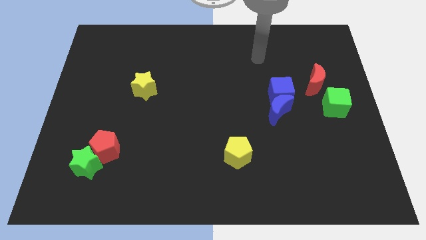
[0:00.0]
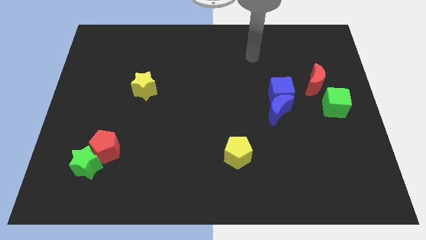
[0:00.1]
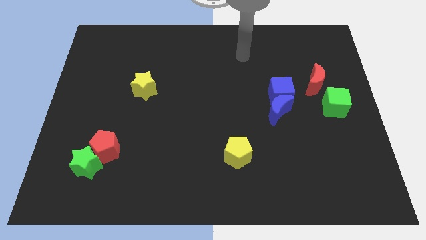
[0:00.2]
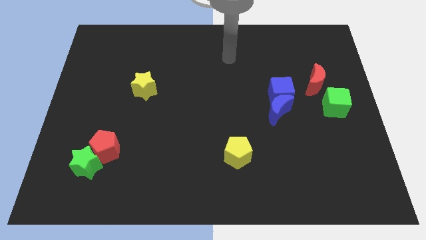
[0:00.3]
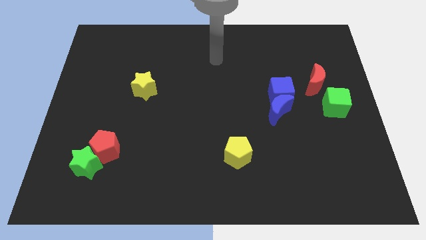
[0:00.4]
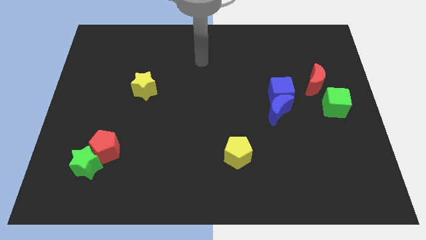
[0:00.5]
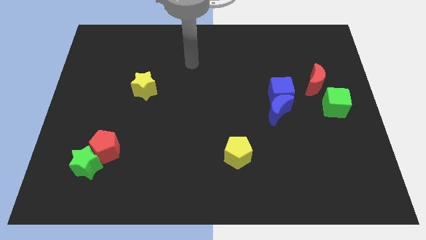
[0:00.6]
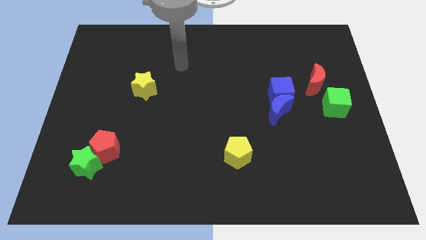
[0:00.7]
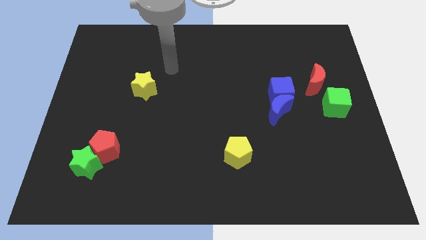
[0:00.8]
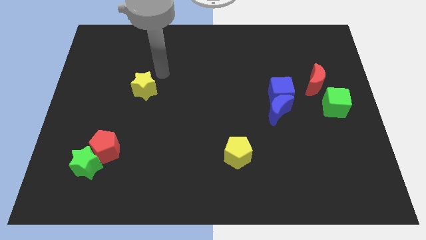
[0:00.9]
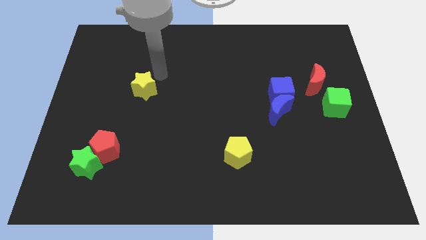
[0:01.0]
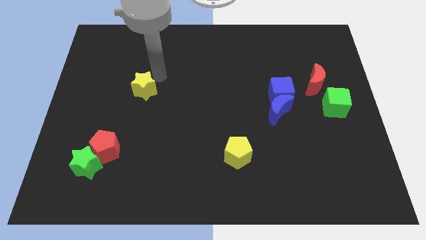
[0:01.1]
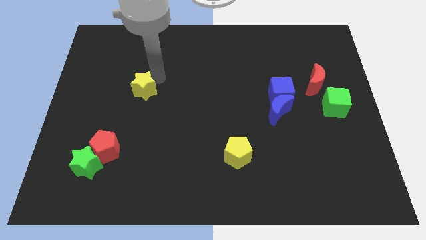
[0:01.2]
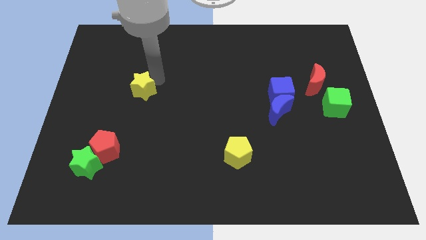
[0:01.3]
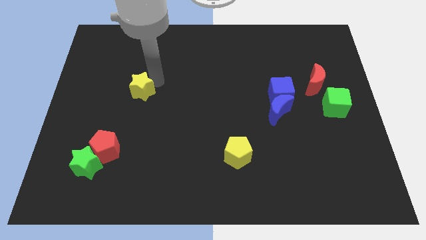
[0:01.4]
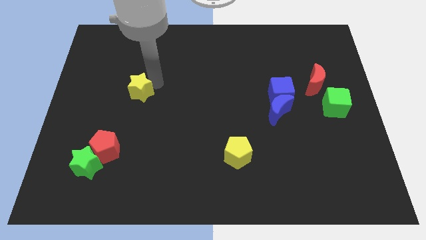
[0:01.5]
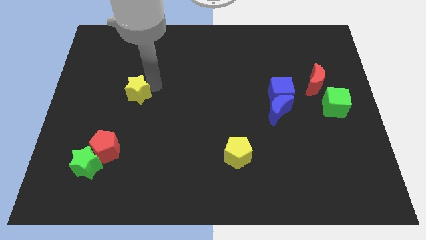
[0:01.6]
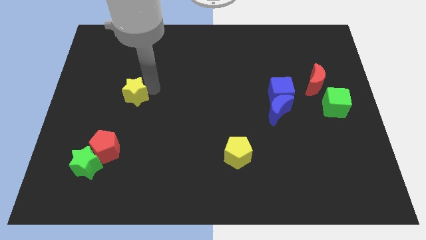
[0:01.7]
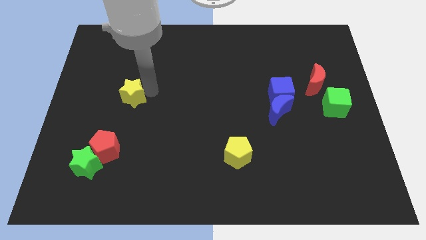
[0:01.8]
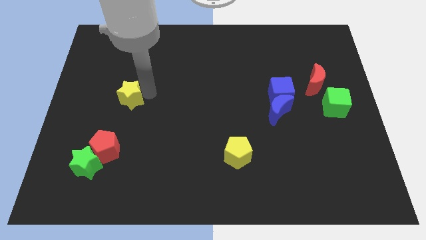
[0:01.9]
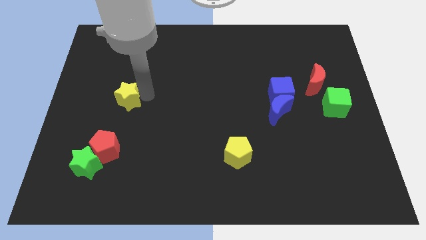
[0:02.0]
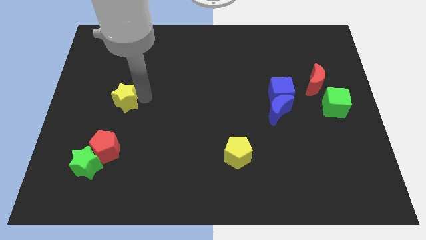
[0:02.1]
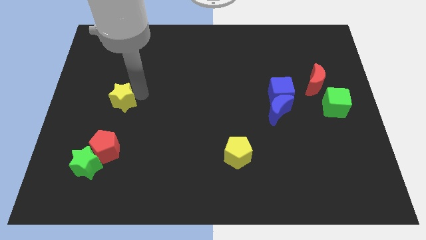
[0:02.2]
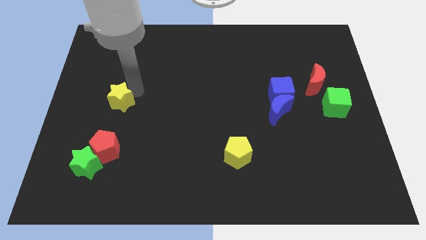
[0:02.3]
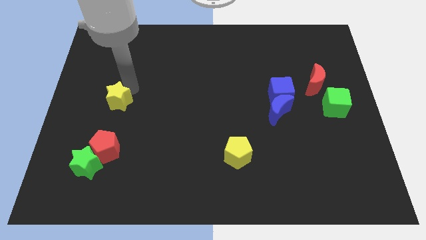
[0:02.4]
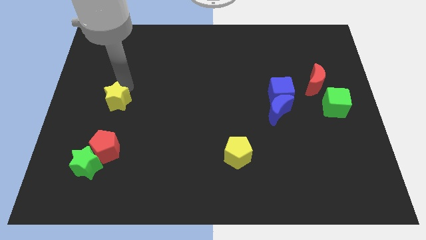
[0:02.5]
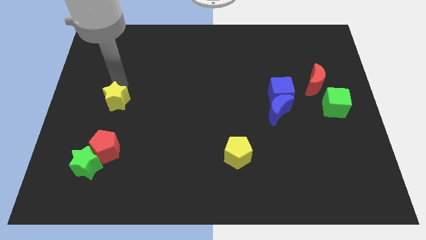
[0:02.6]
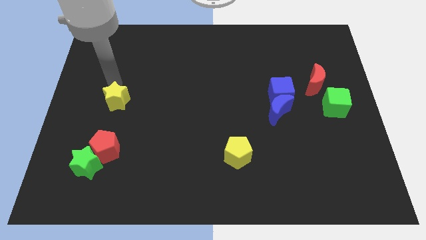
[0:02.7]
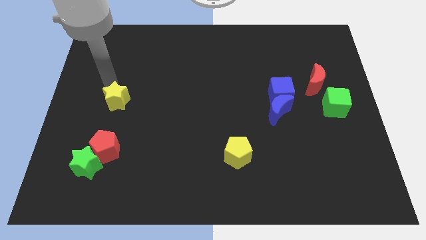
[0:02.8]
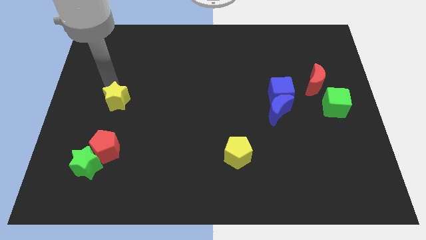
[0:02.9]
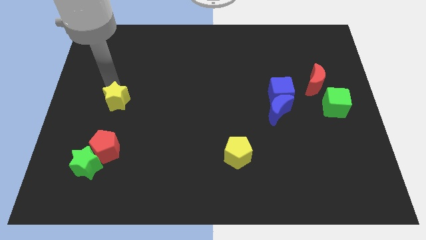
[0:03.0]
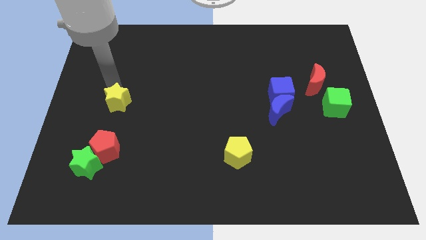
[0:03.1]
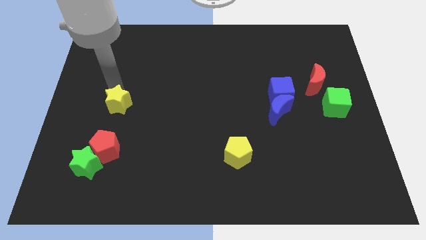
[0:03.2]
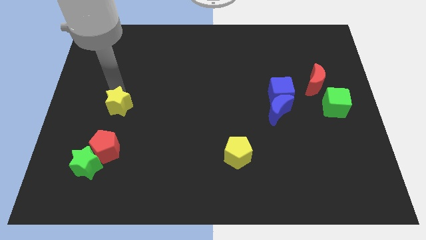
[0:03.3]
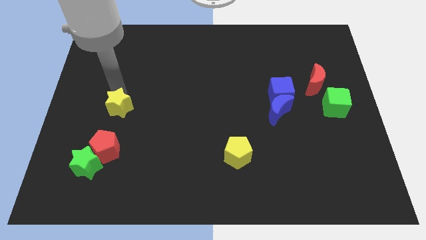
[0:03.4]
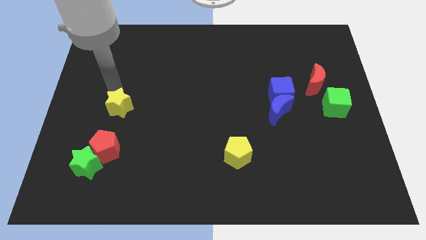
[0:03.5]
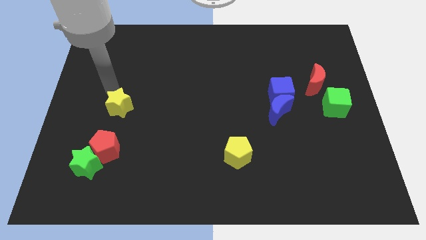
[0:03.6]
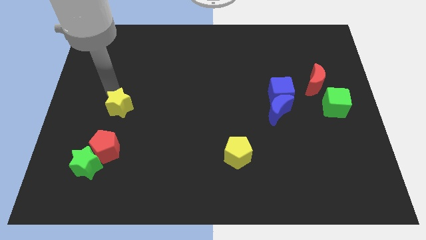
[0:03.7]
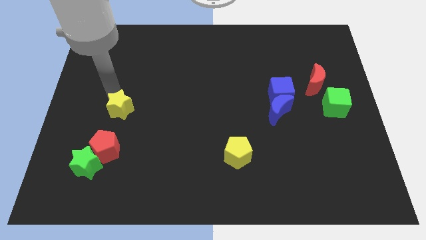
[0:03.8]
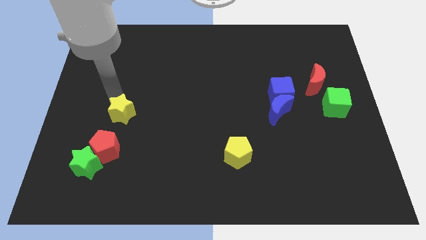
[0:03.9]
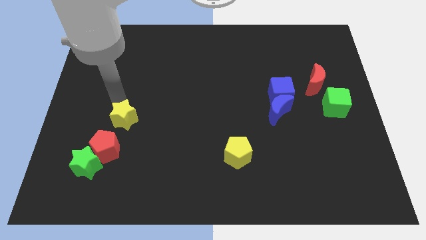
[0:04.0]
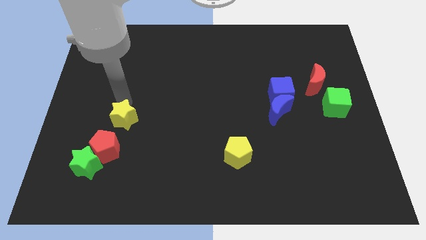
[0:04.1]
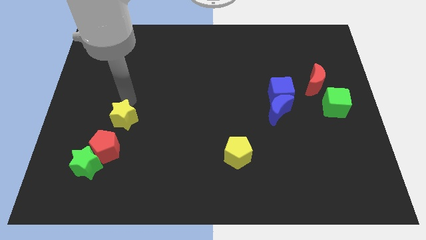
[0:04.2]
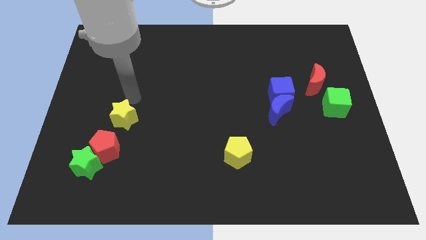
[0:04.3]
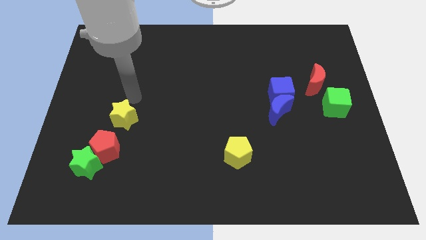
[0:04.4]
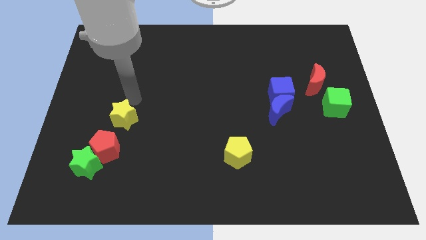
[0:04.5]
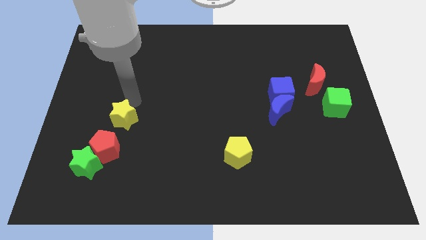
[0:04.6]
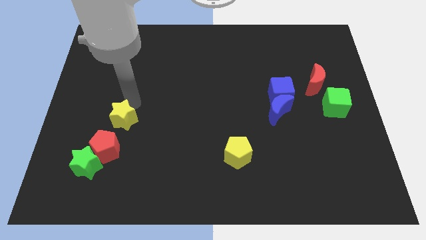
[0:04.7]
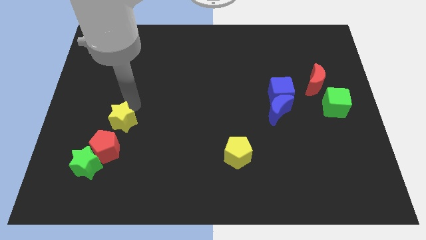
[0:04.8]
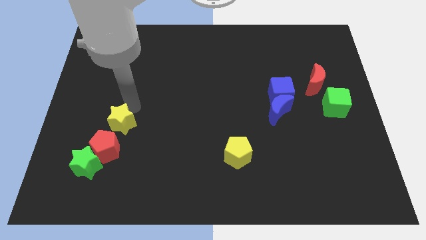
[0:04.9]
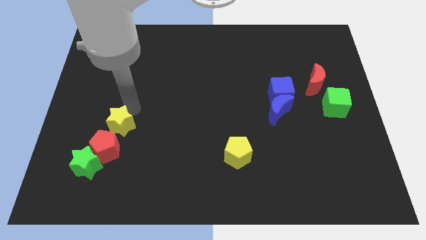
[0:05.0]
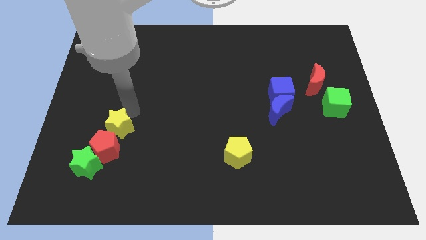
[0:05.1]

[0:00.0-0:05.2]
put the yellow star close to the red pentagon

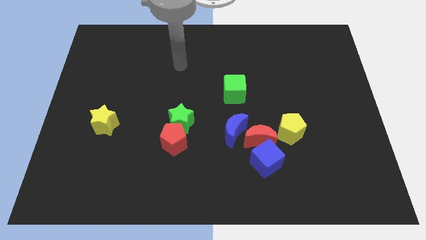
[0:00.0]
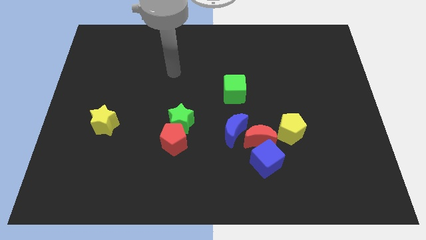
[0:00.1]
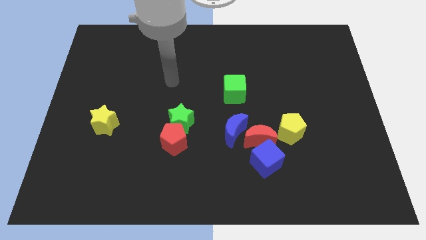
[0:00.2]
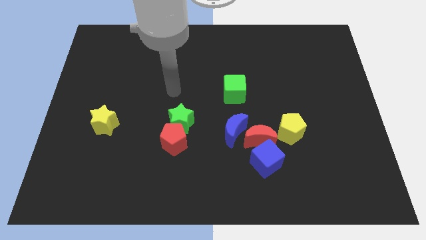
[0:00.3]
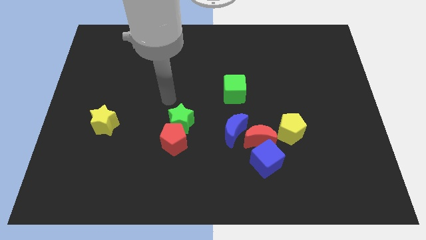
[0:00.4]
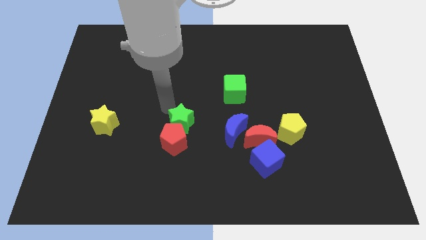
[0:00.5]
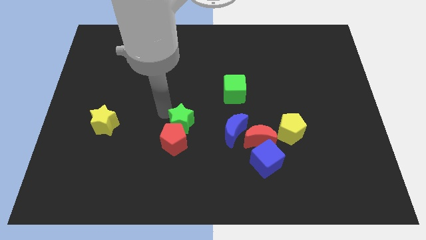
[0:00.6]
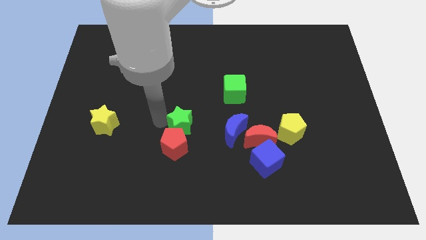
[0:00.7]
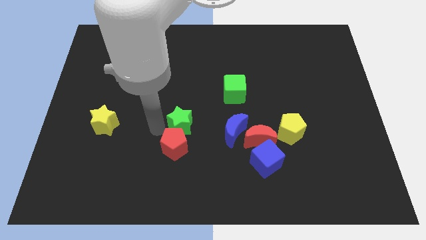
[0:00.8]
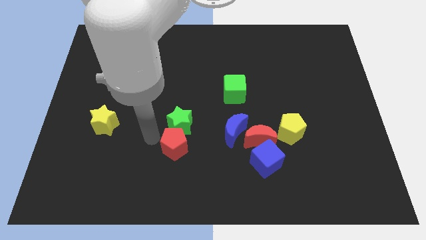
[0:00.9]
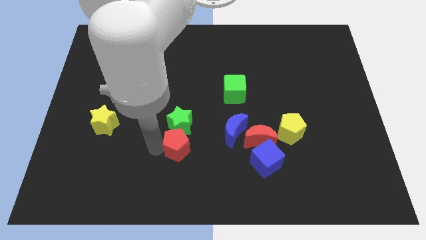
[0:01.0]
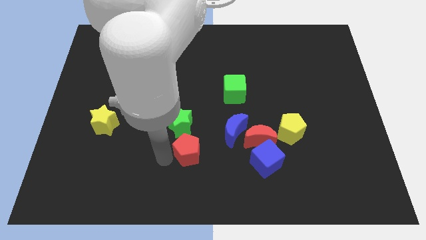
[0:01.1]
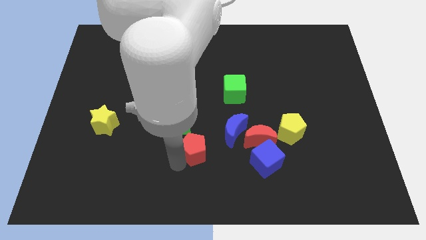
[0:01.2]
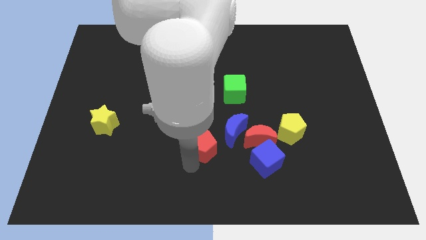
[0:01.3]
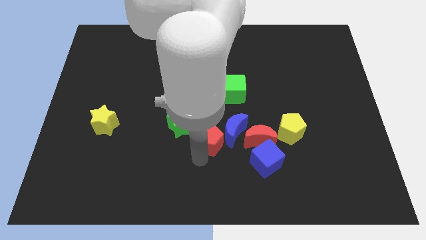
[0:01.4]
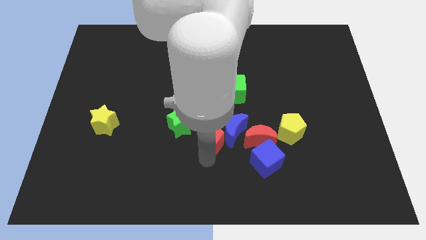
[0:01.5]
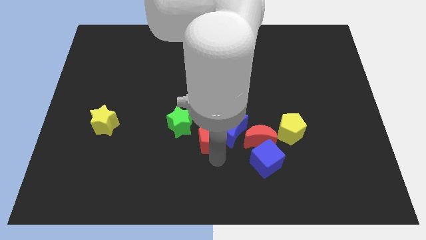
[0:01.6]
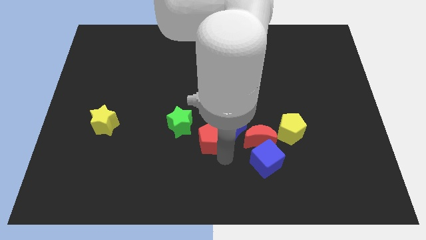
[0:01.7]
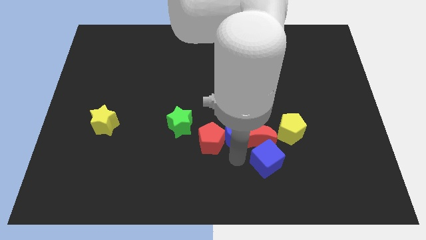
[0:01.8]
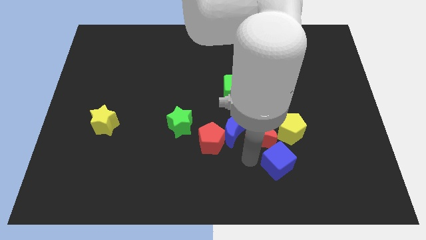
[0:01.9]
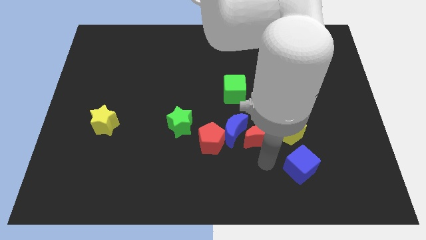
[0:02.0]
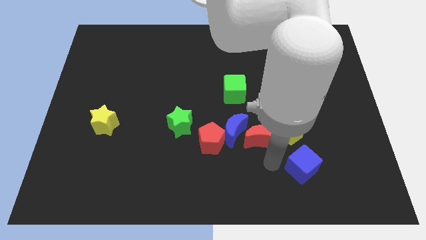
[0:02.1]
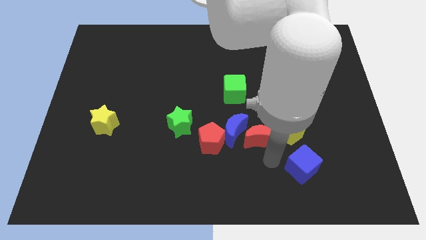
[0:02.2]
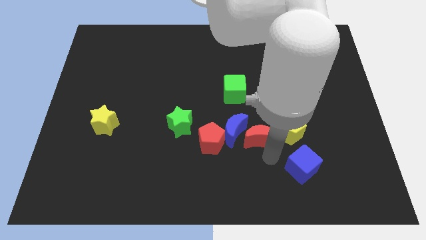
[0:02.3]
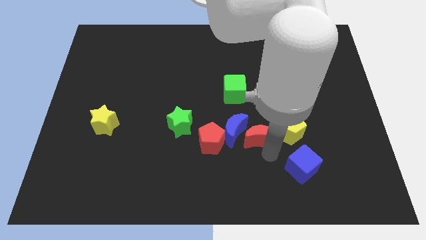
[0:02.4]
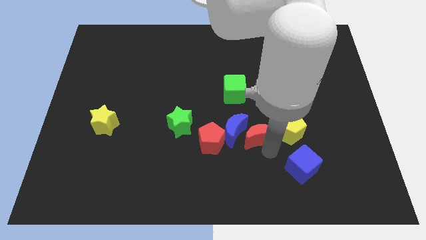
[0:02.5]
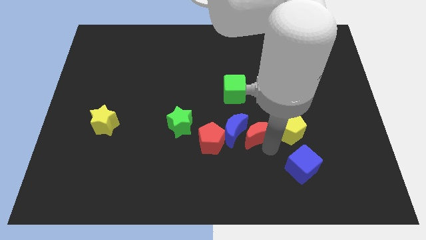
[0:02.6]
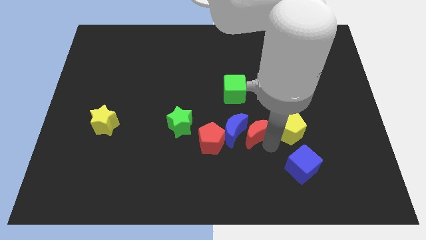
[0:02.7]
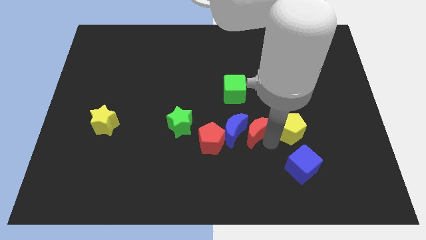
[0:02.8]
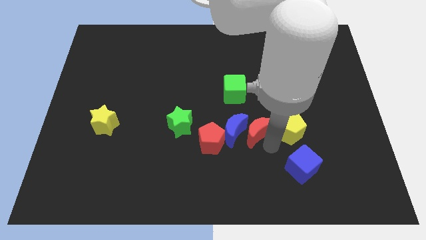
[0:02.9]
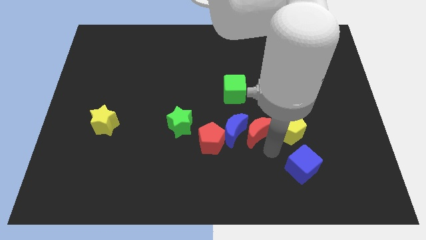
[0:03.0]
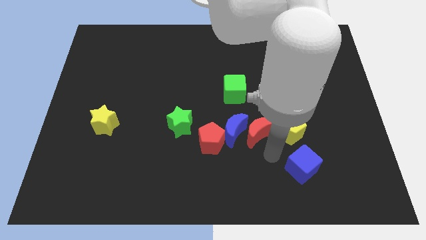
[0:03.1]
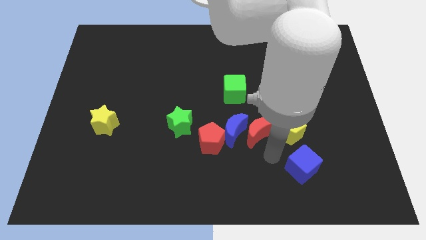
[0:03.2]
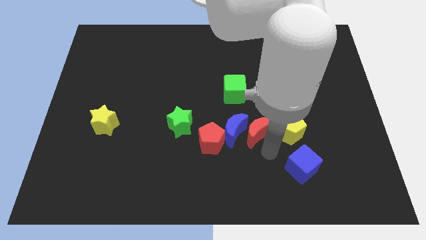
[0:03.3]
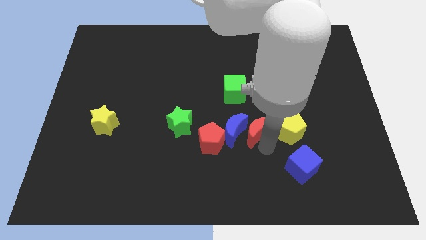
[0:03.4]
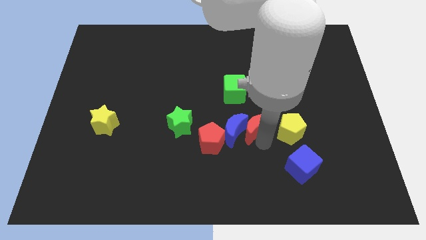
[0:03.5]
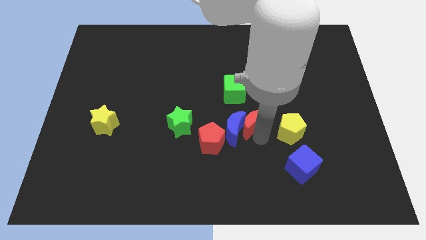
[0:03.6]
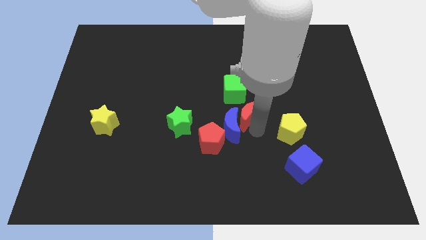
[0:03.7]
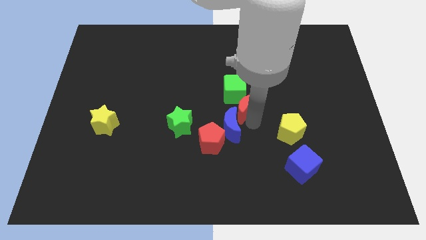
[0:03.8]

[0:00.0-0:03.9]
push the red moon next to the green cube
